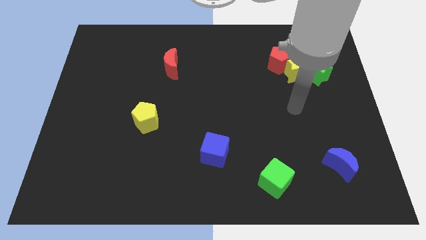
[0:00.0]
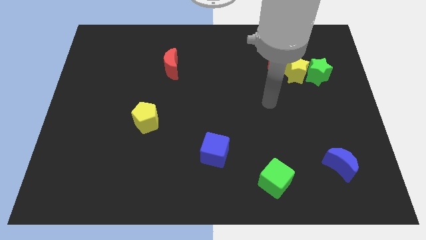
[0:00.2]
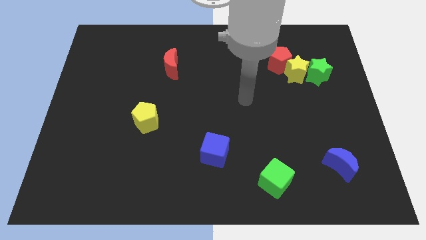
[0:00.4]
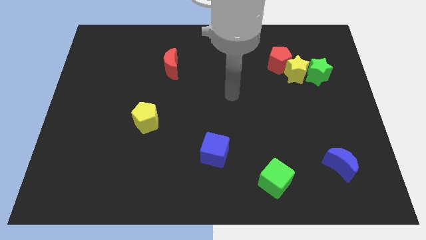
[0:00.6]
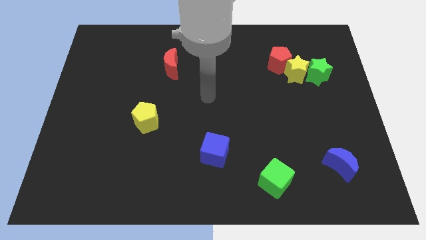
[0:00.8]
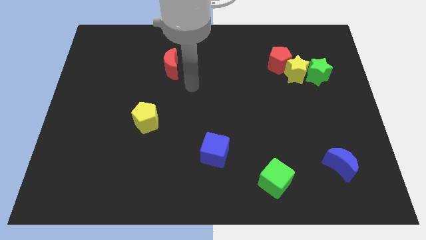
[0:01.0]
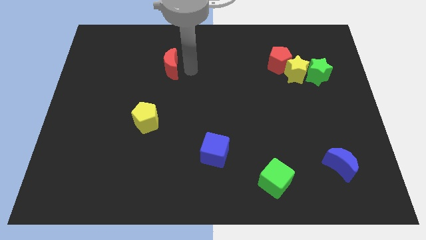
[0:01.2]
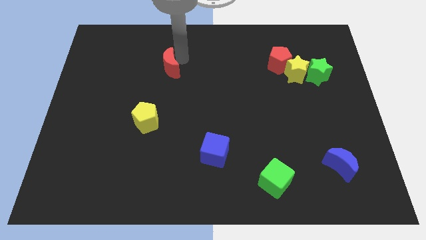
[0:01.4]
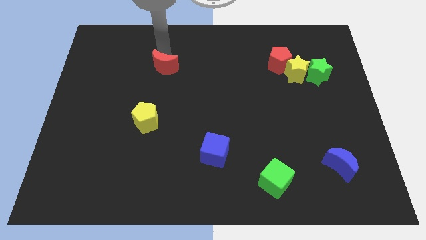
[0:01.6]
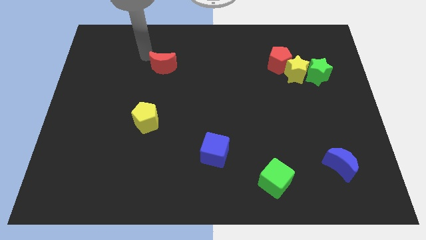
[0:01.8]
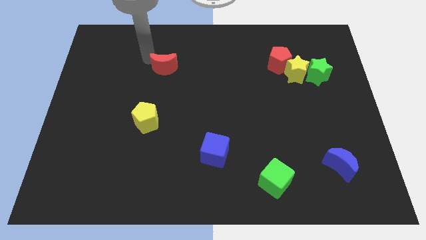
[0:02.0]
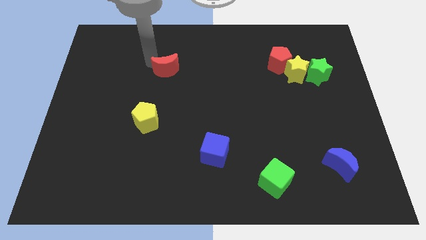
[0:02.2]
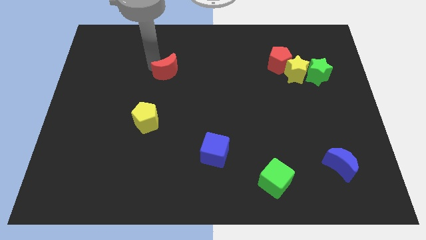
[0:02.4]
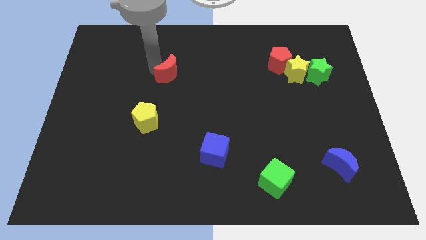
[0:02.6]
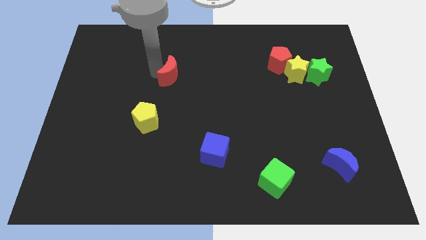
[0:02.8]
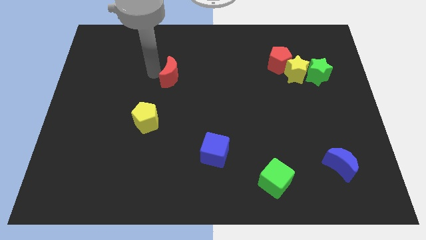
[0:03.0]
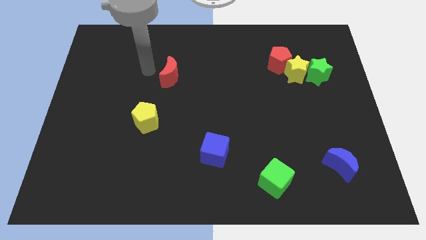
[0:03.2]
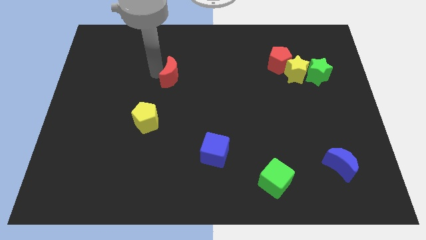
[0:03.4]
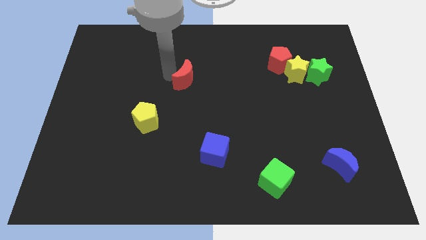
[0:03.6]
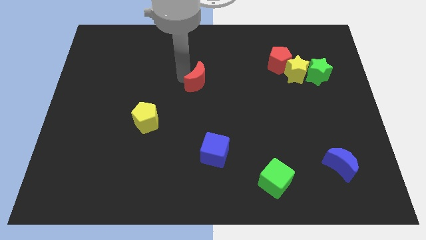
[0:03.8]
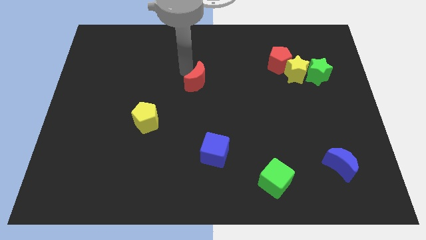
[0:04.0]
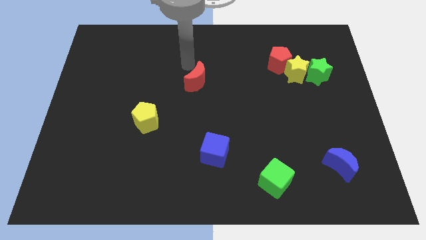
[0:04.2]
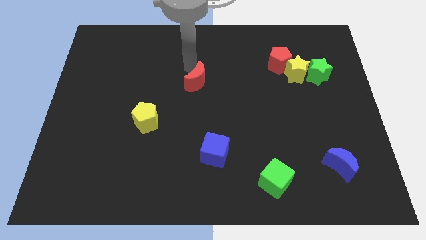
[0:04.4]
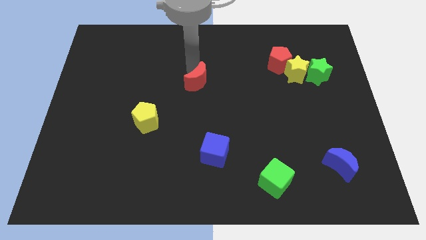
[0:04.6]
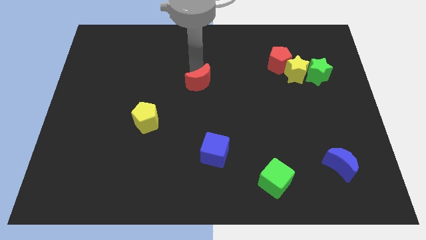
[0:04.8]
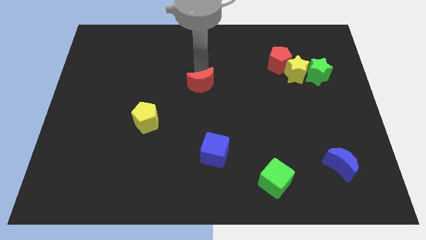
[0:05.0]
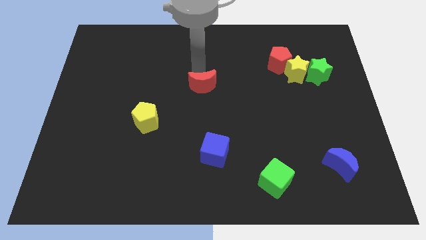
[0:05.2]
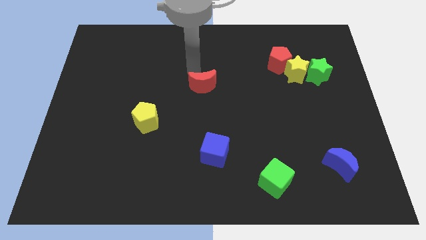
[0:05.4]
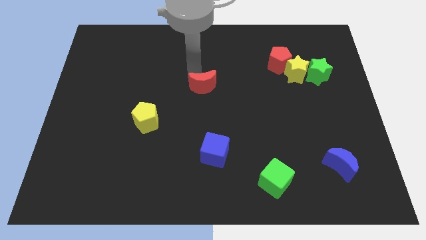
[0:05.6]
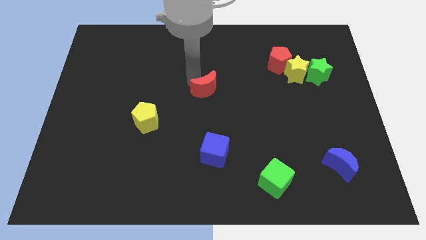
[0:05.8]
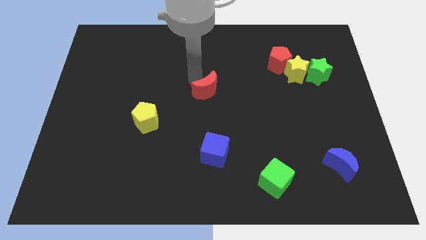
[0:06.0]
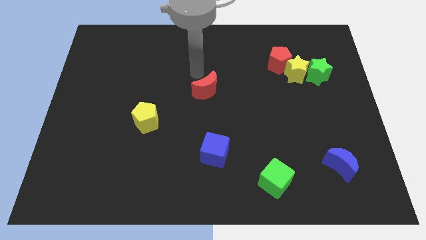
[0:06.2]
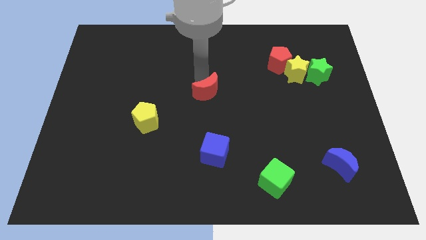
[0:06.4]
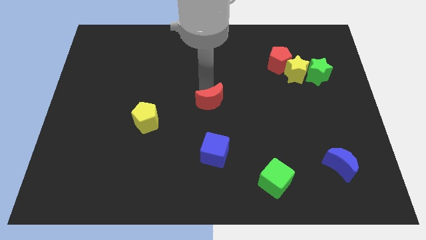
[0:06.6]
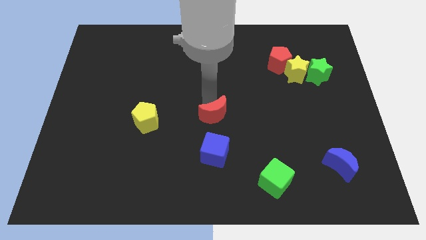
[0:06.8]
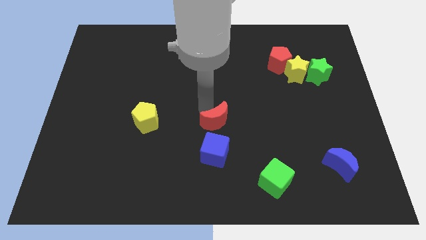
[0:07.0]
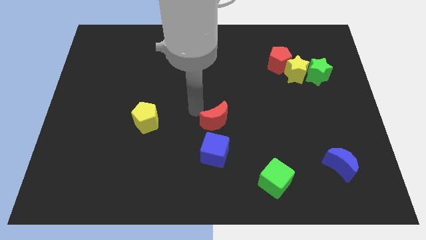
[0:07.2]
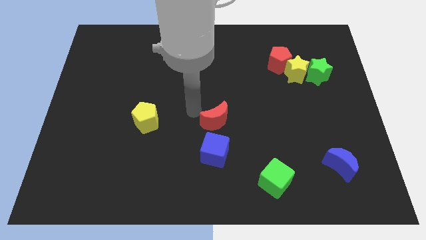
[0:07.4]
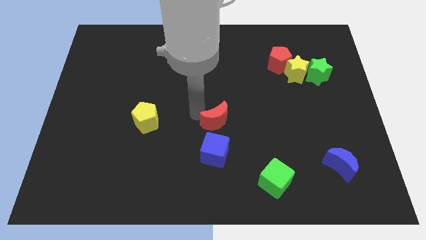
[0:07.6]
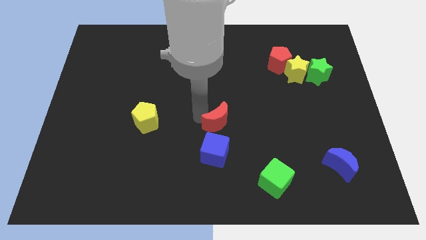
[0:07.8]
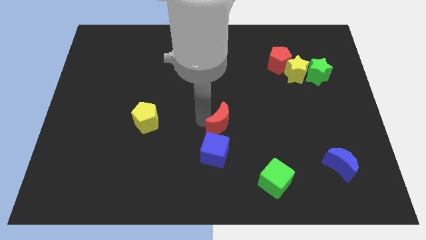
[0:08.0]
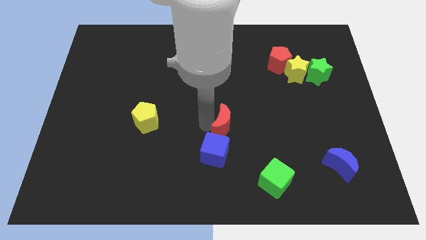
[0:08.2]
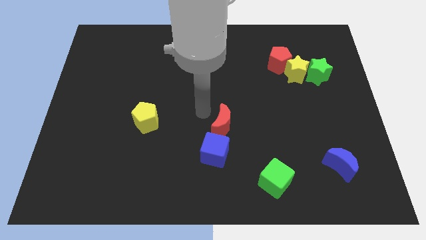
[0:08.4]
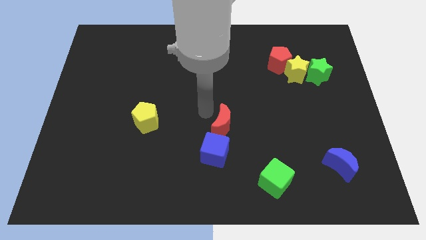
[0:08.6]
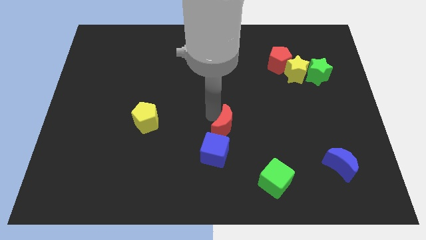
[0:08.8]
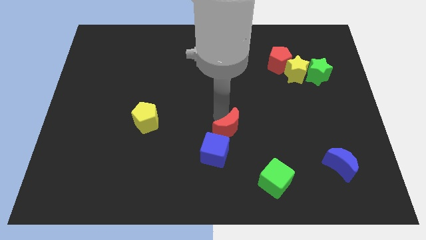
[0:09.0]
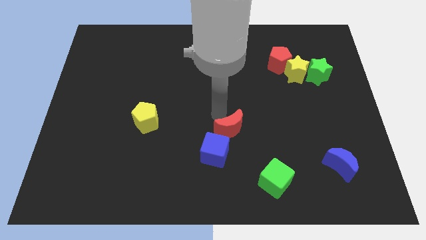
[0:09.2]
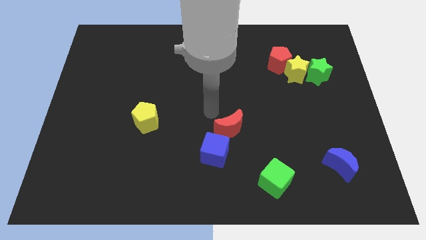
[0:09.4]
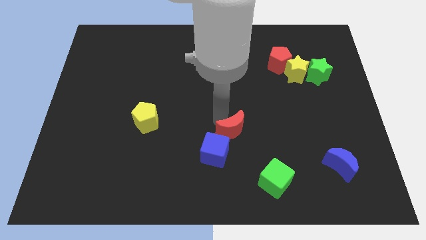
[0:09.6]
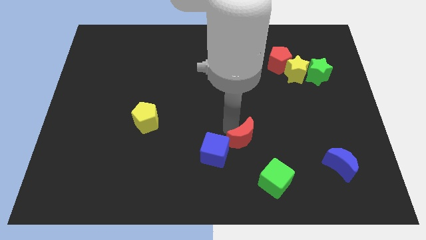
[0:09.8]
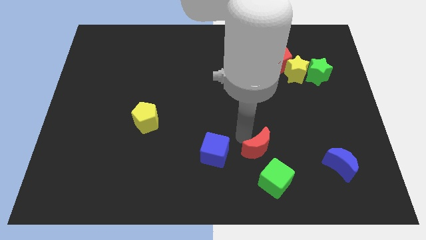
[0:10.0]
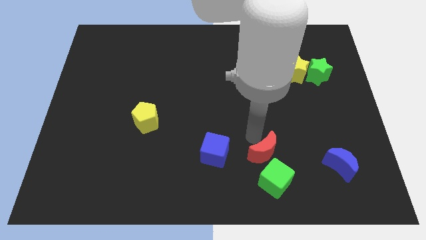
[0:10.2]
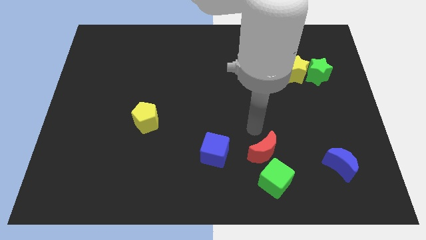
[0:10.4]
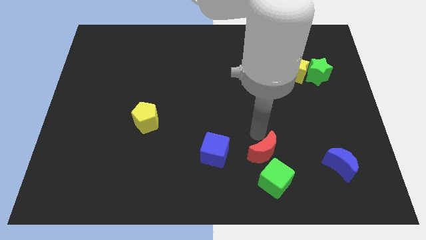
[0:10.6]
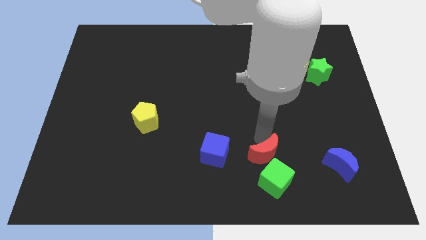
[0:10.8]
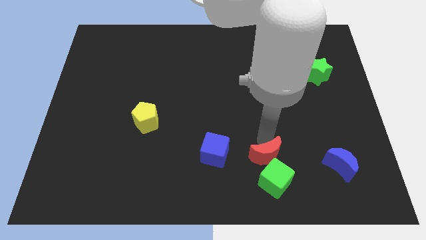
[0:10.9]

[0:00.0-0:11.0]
push the red moon close to the green cube
